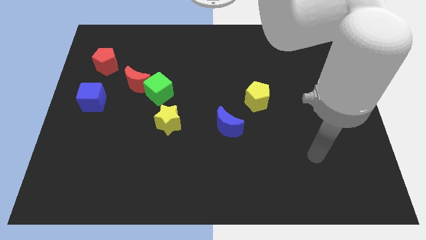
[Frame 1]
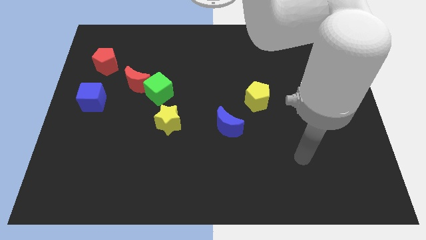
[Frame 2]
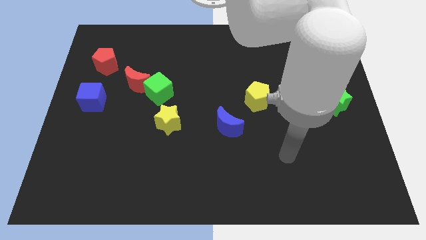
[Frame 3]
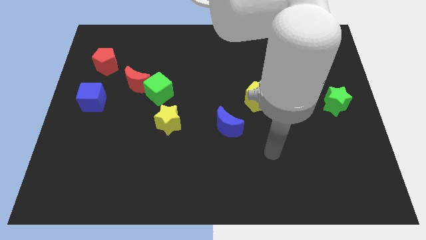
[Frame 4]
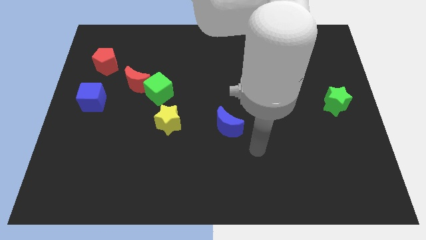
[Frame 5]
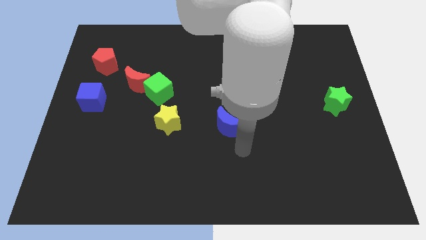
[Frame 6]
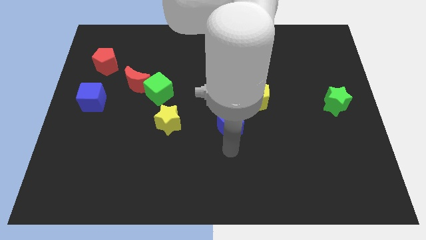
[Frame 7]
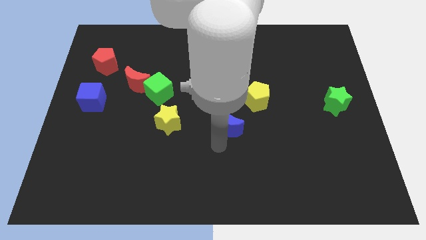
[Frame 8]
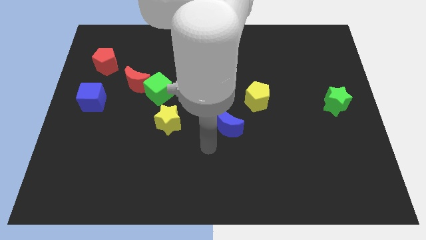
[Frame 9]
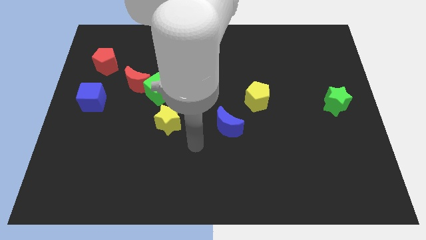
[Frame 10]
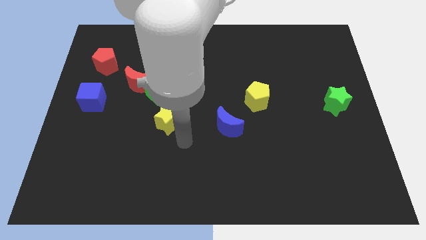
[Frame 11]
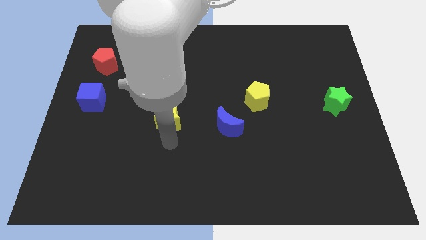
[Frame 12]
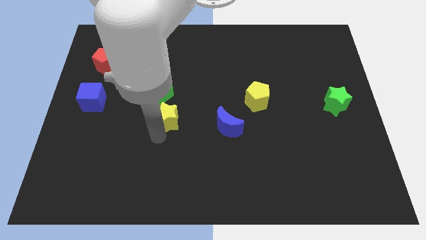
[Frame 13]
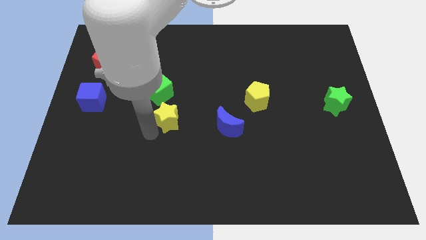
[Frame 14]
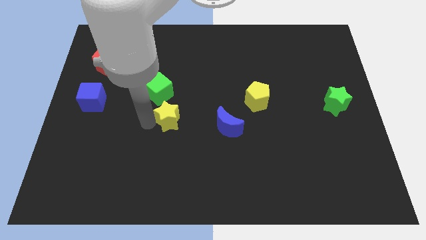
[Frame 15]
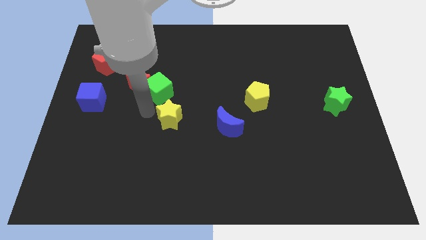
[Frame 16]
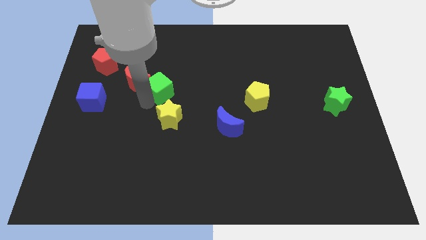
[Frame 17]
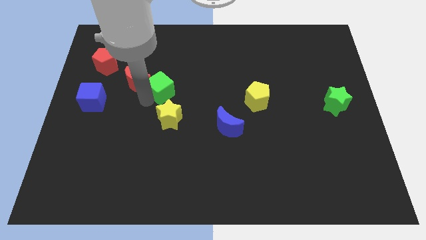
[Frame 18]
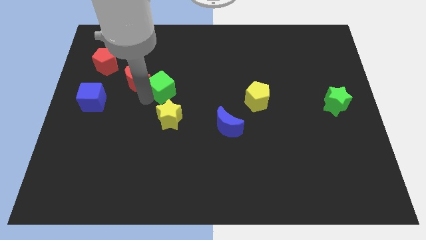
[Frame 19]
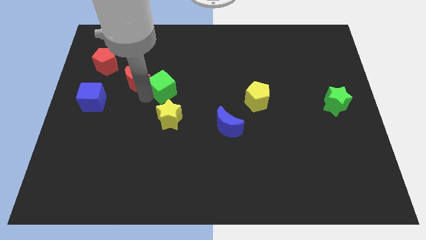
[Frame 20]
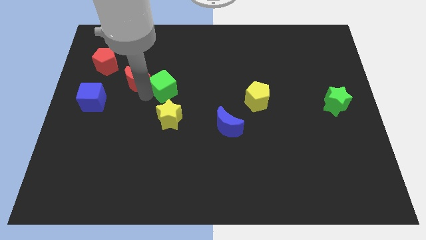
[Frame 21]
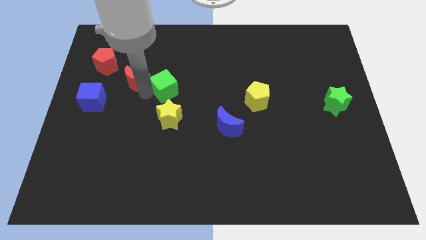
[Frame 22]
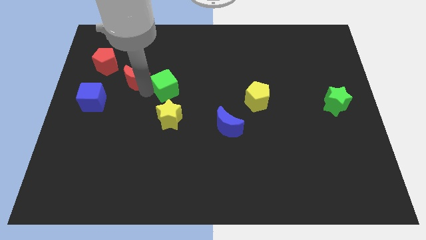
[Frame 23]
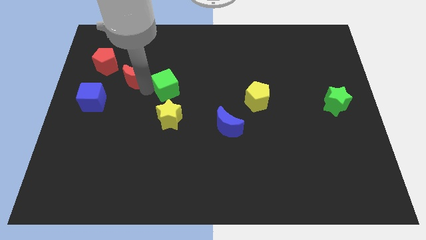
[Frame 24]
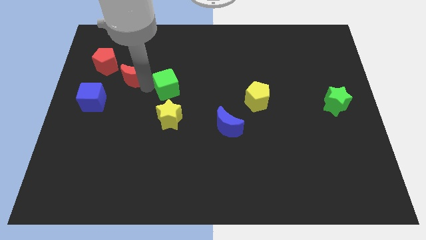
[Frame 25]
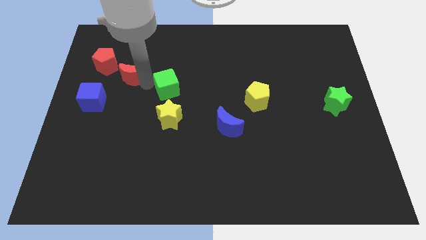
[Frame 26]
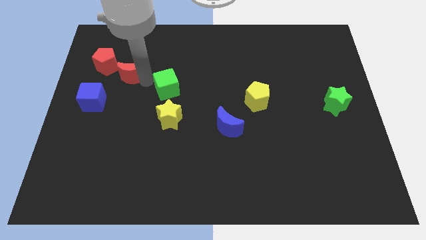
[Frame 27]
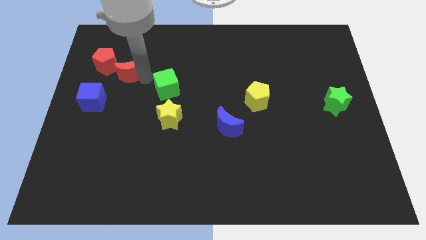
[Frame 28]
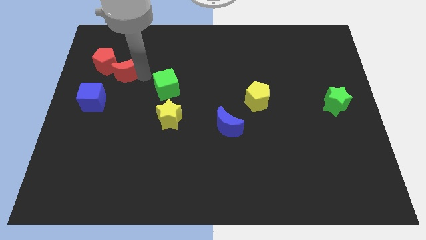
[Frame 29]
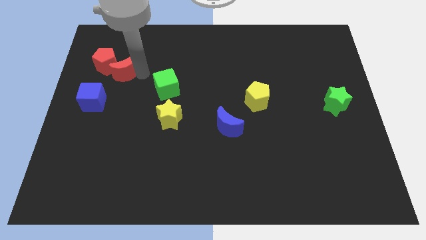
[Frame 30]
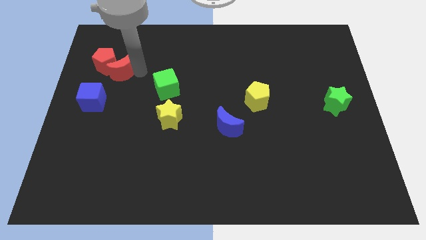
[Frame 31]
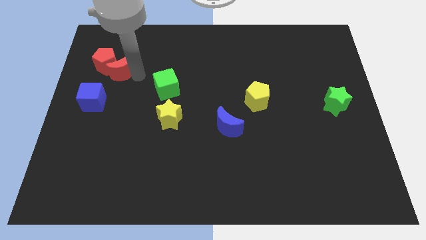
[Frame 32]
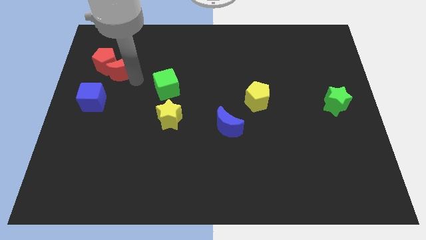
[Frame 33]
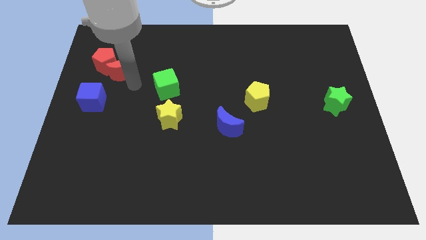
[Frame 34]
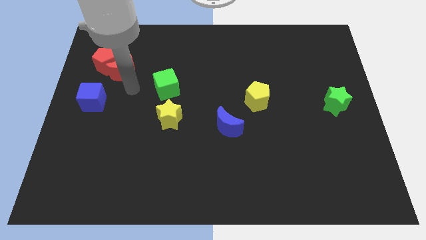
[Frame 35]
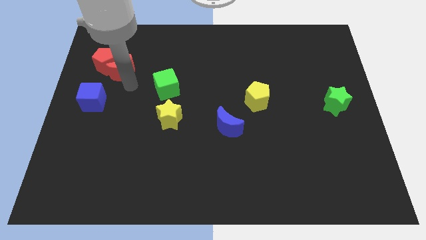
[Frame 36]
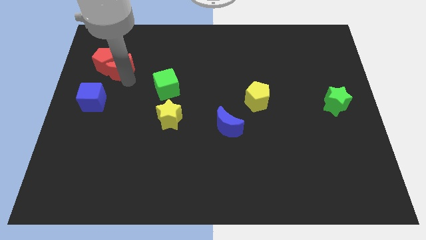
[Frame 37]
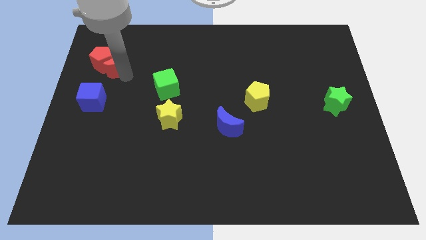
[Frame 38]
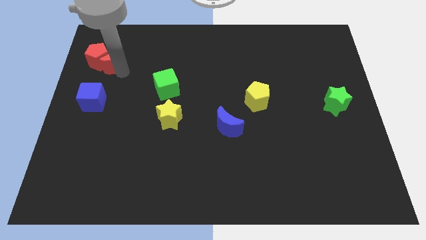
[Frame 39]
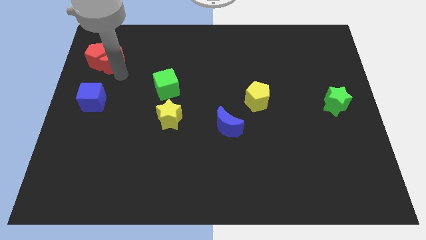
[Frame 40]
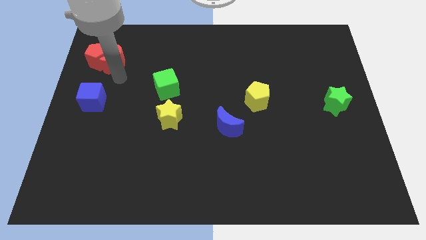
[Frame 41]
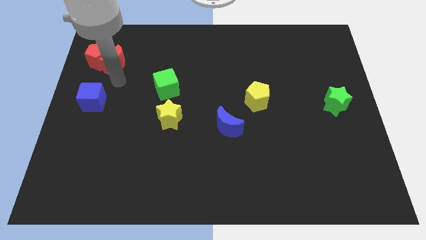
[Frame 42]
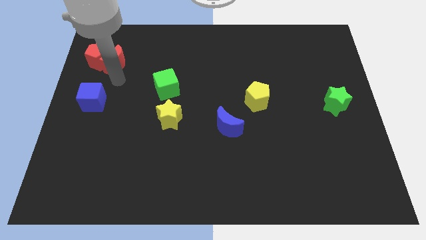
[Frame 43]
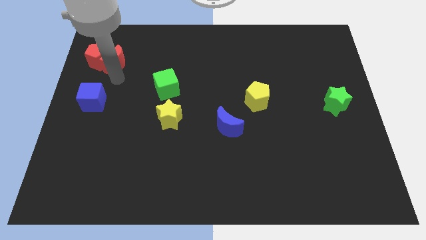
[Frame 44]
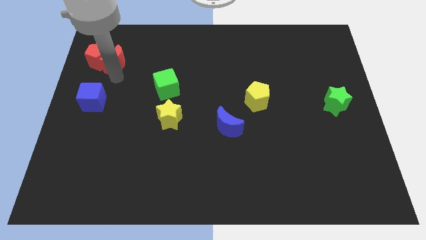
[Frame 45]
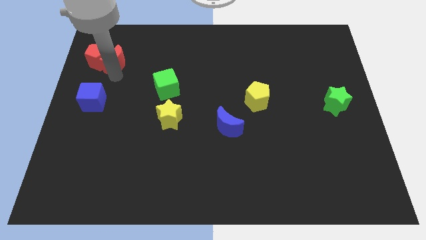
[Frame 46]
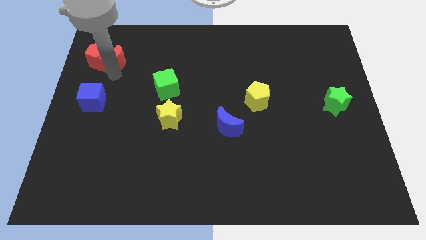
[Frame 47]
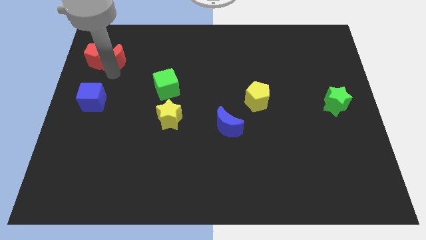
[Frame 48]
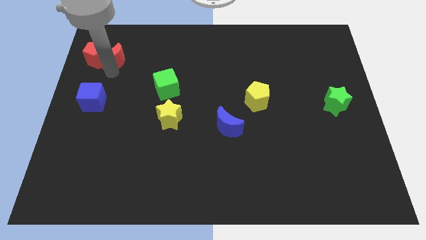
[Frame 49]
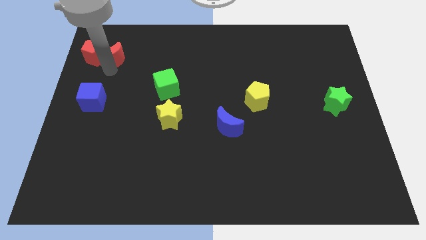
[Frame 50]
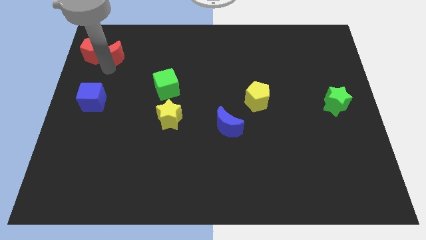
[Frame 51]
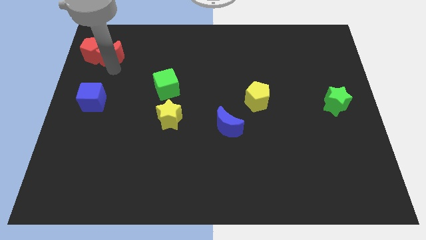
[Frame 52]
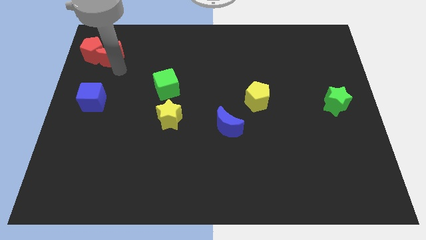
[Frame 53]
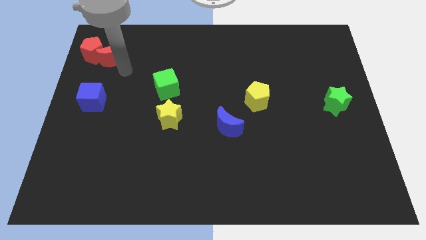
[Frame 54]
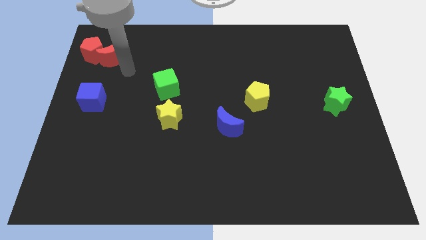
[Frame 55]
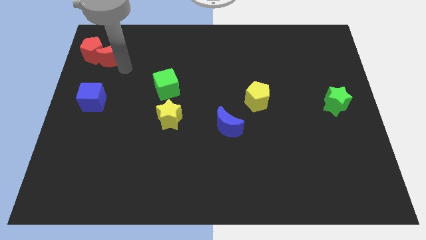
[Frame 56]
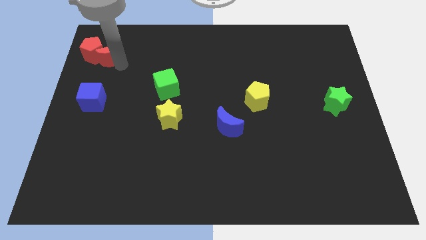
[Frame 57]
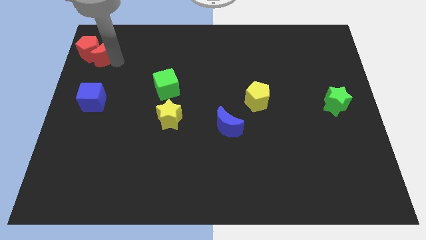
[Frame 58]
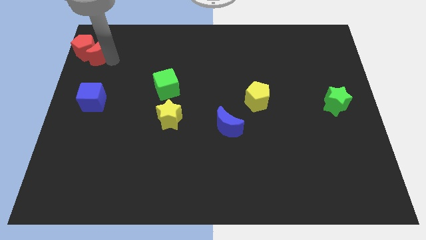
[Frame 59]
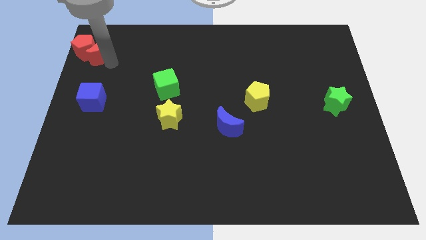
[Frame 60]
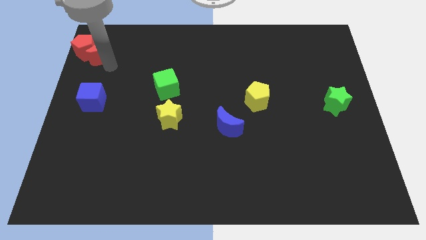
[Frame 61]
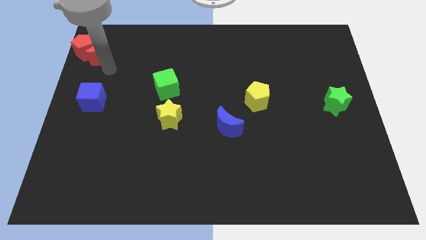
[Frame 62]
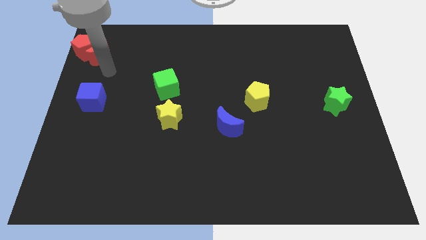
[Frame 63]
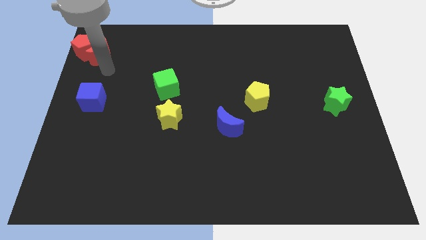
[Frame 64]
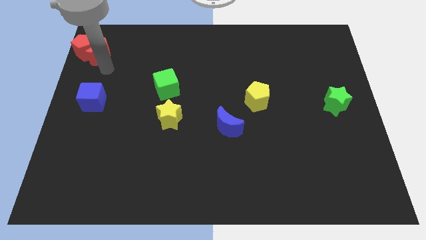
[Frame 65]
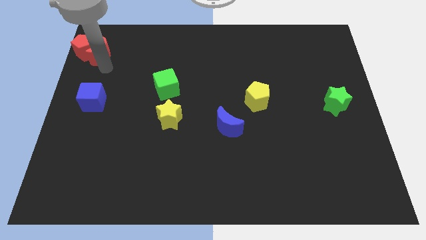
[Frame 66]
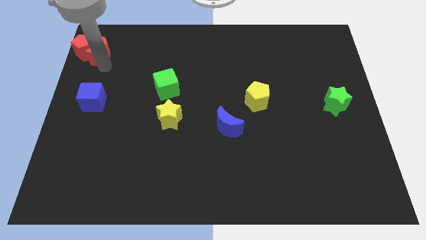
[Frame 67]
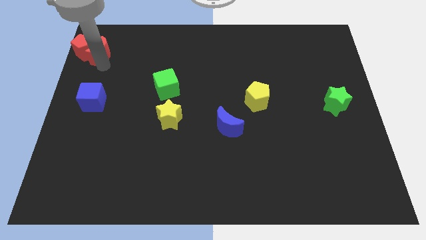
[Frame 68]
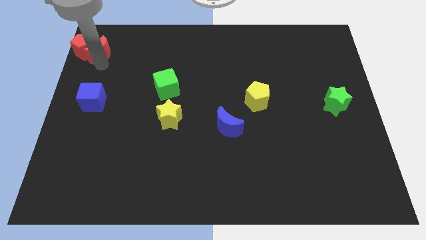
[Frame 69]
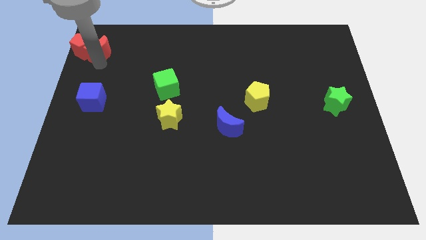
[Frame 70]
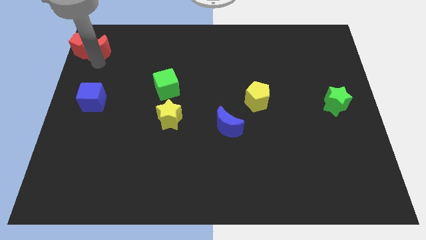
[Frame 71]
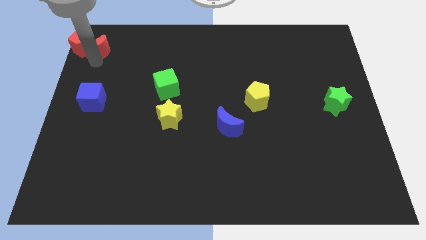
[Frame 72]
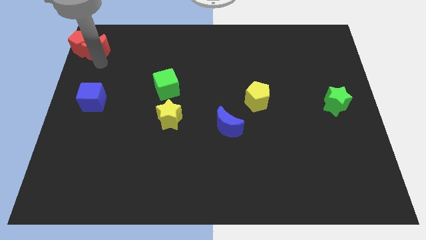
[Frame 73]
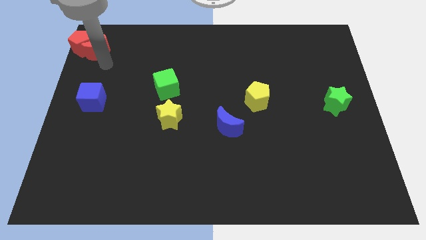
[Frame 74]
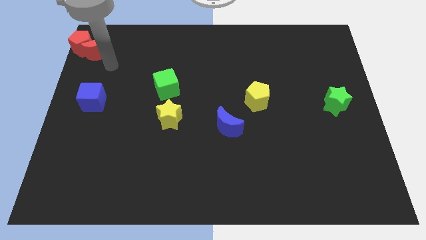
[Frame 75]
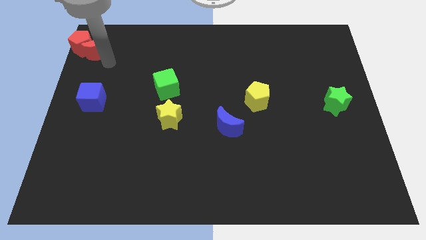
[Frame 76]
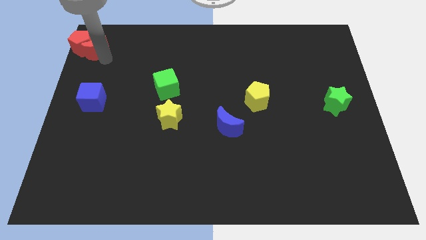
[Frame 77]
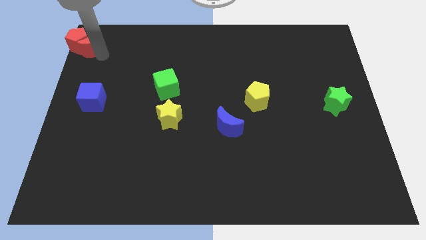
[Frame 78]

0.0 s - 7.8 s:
move the red moon to the top left
